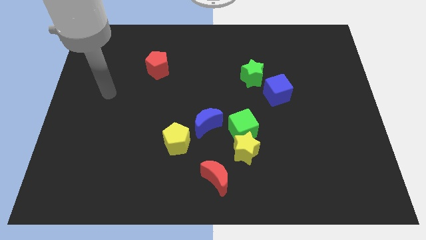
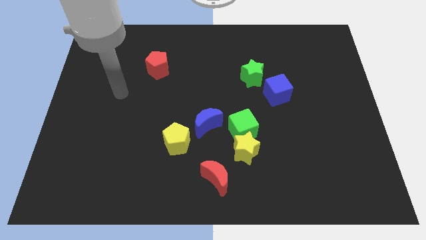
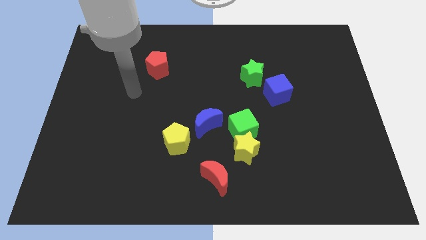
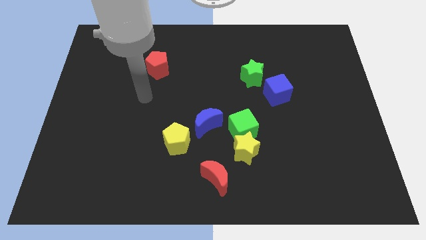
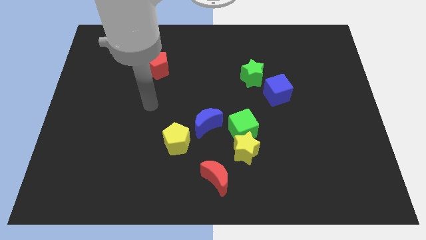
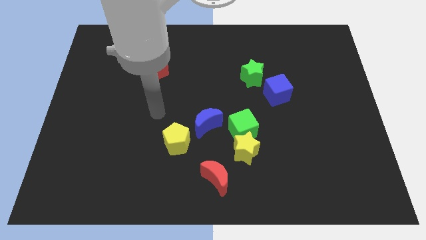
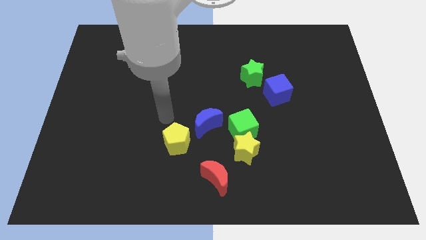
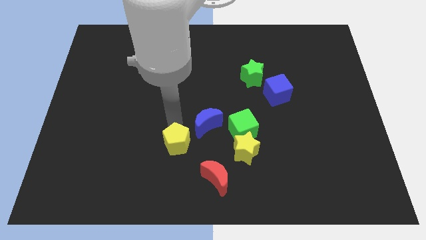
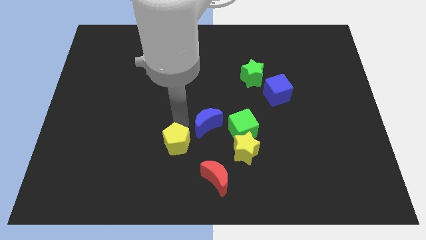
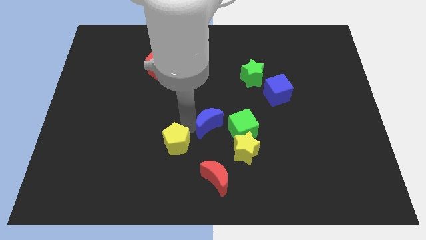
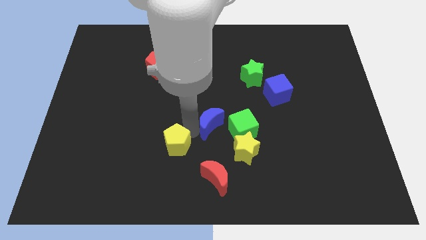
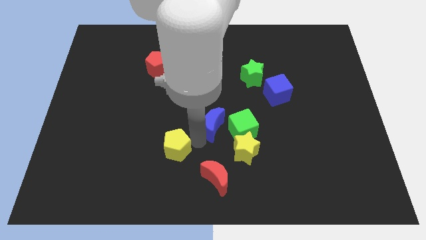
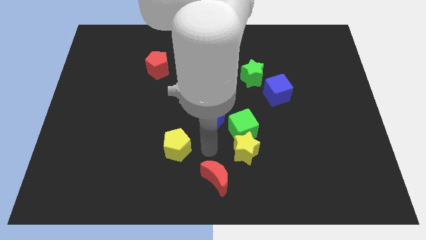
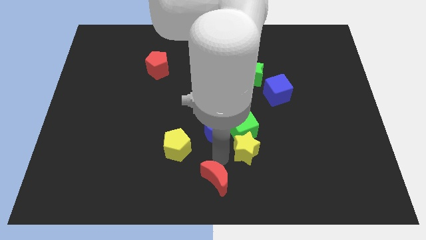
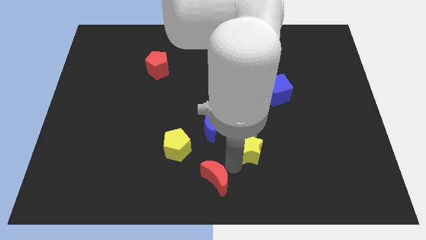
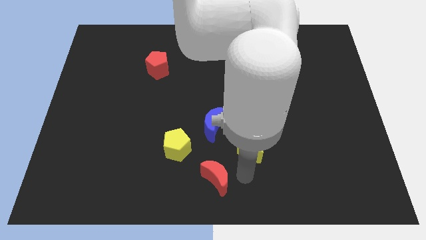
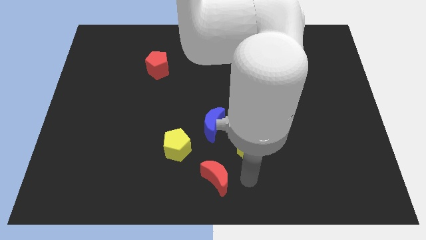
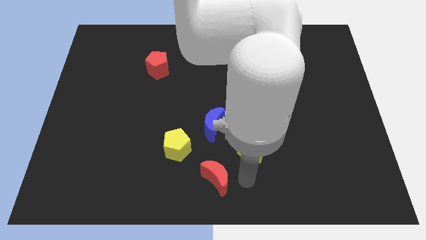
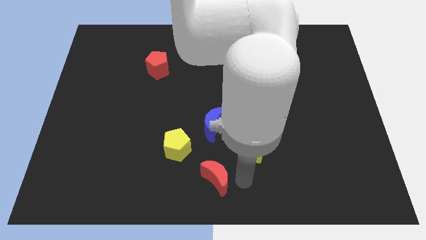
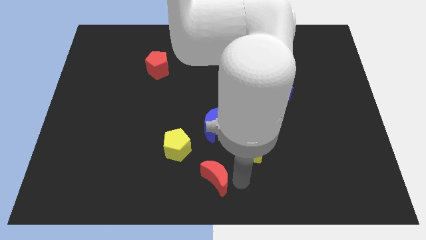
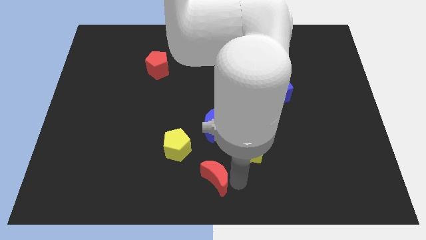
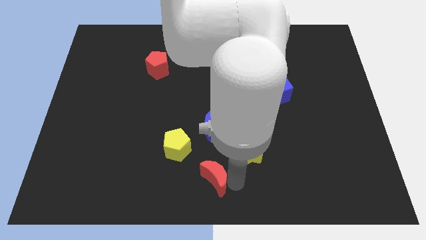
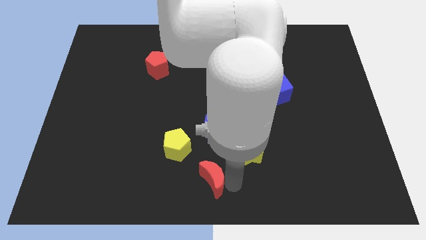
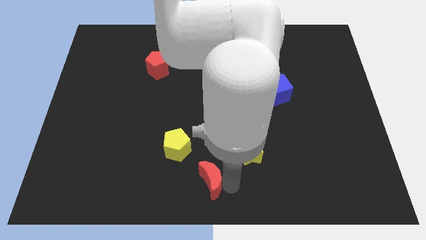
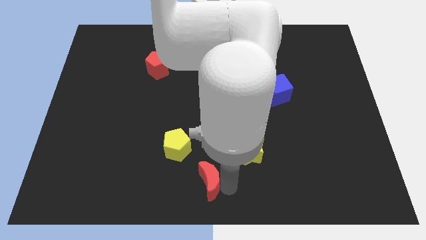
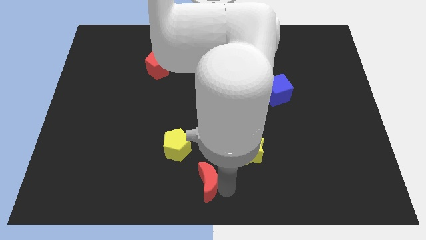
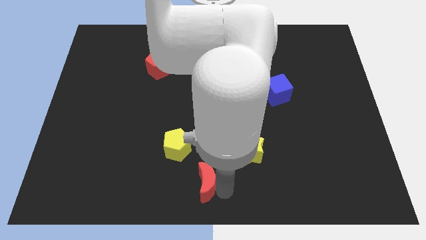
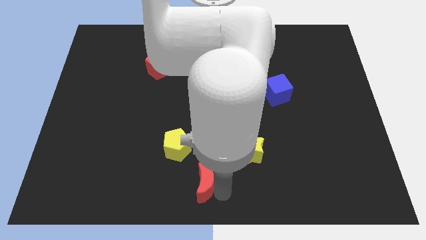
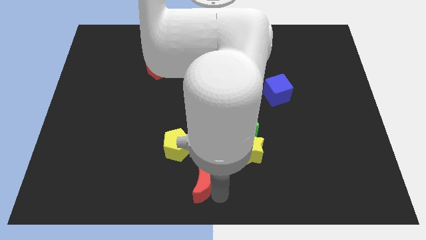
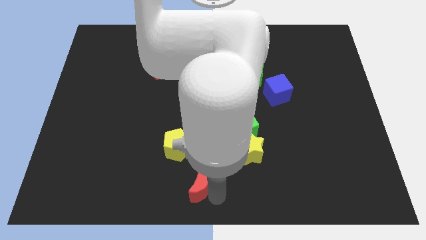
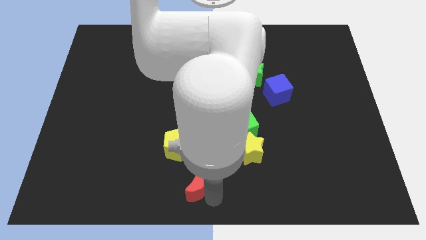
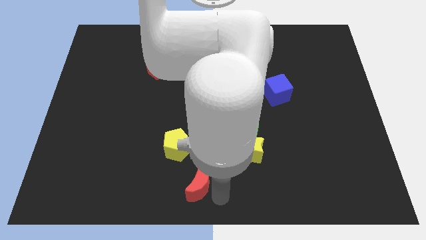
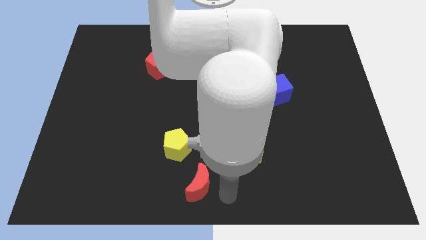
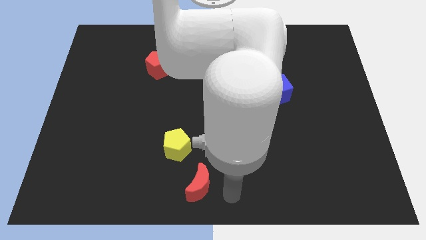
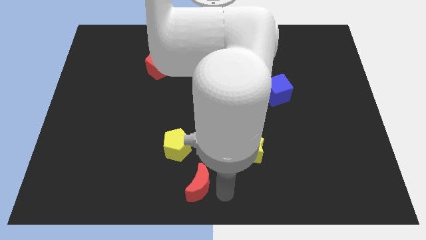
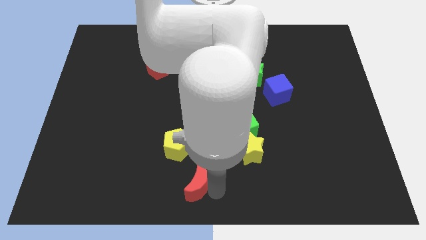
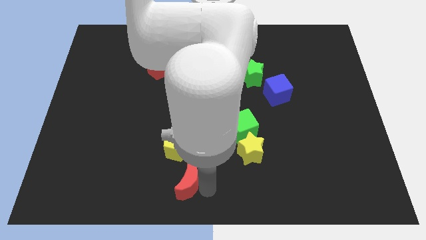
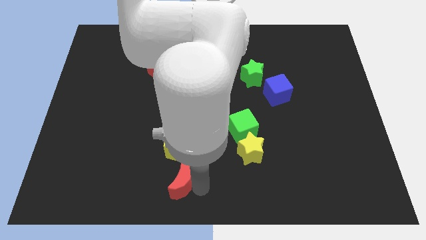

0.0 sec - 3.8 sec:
slide the red moon somewhat left

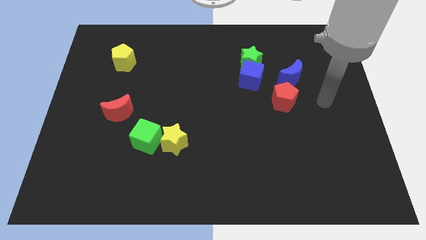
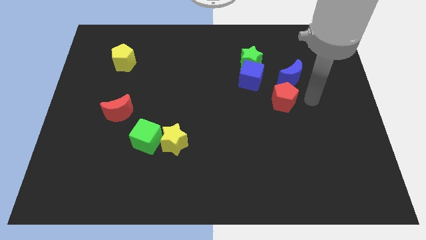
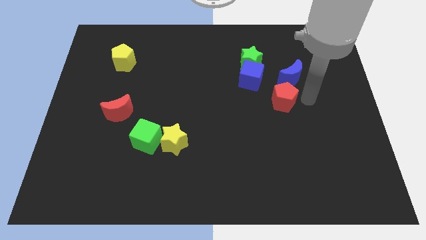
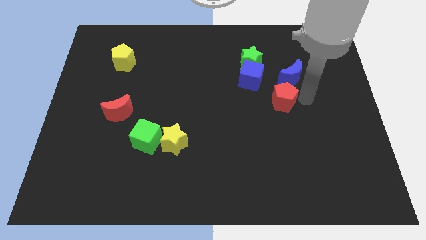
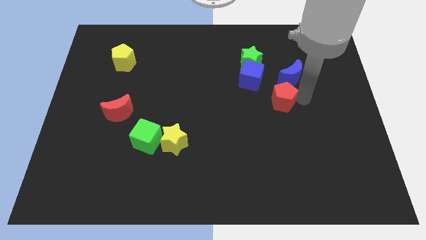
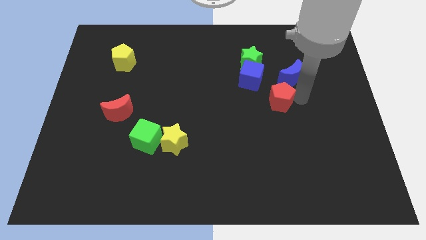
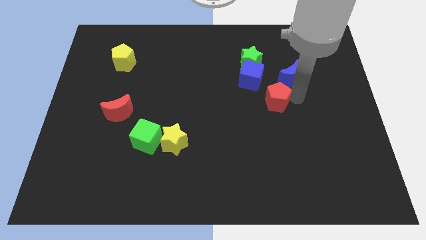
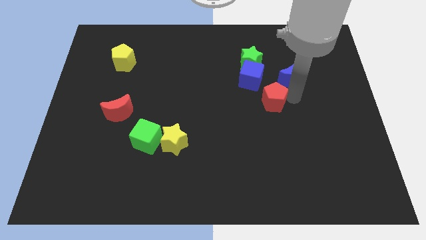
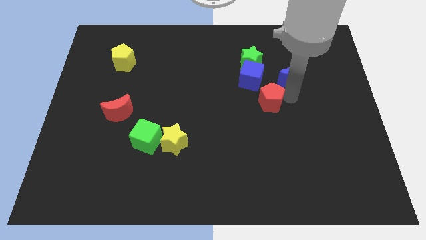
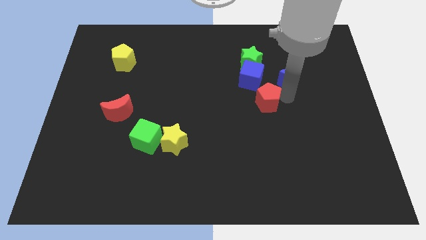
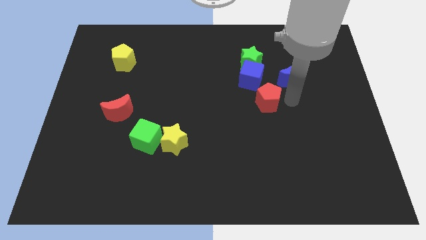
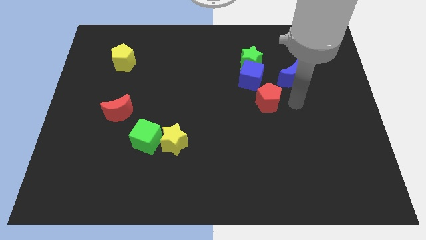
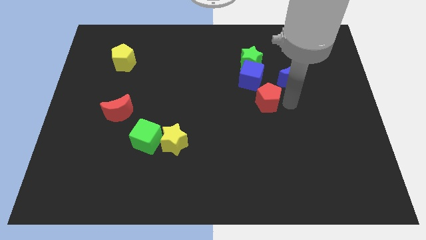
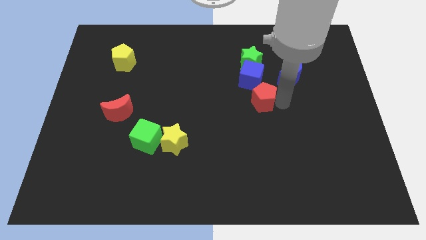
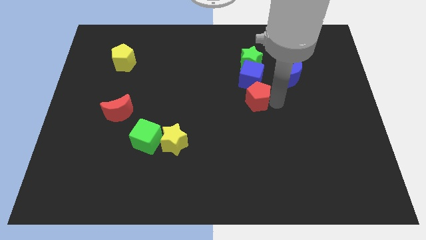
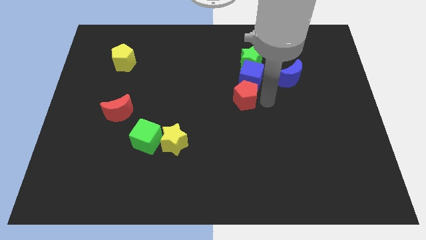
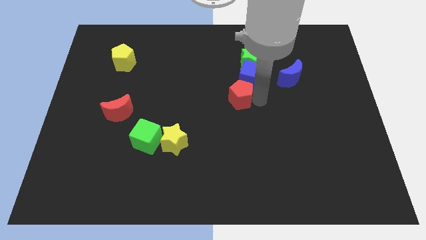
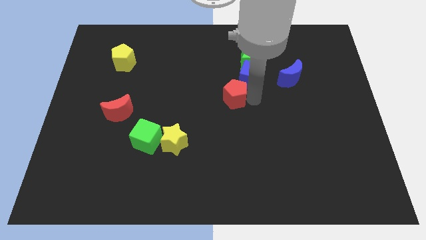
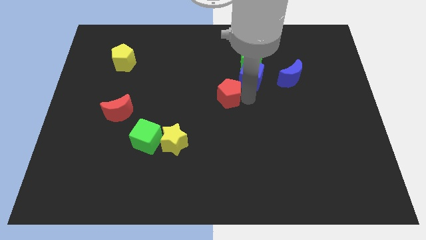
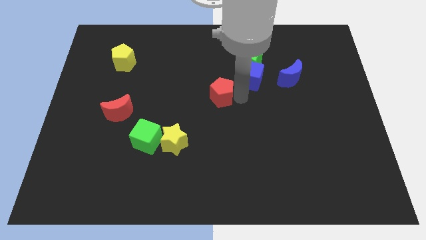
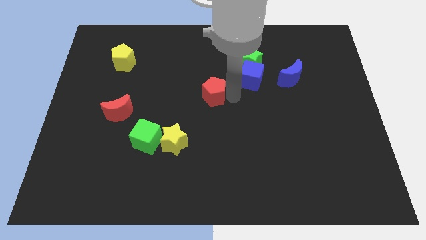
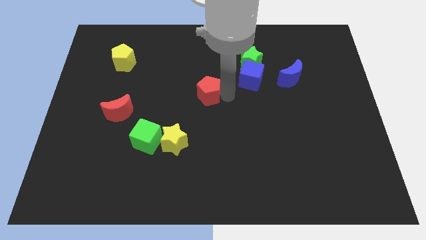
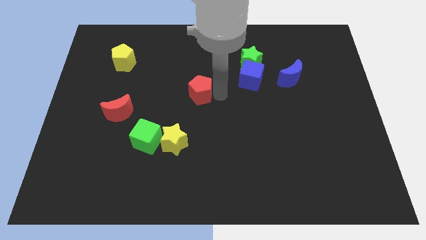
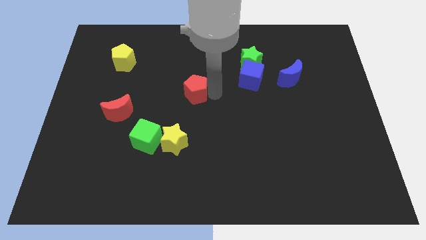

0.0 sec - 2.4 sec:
slide the red pentagon to the left

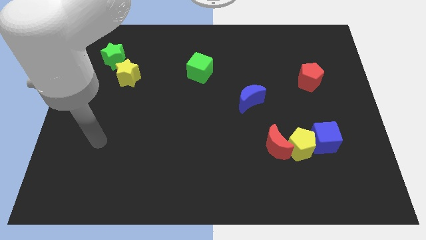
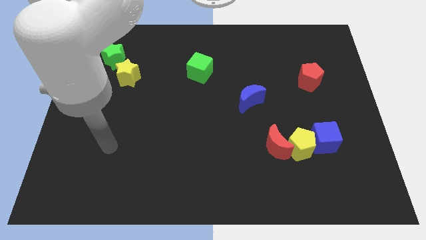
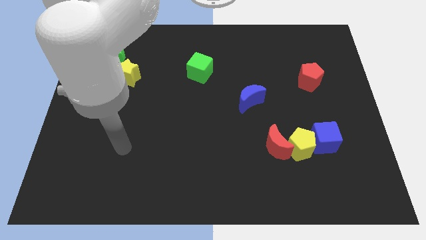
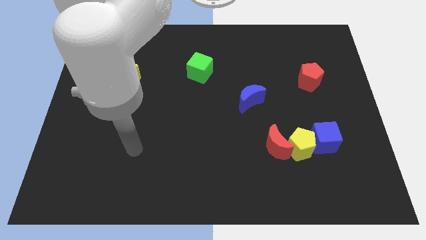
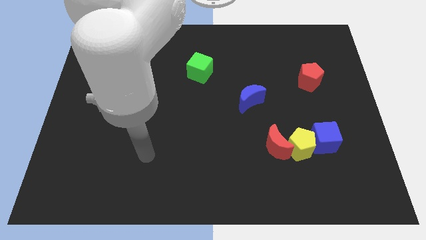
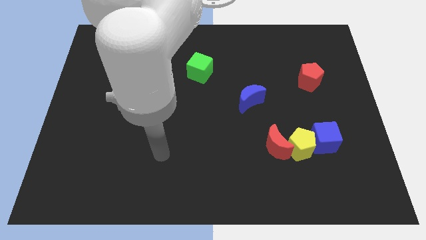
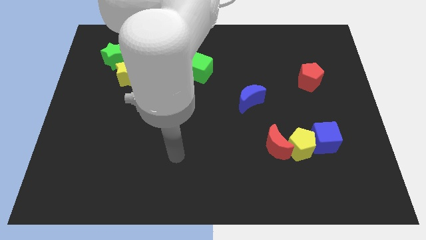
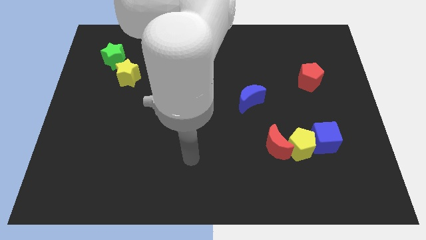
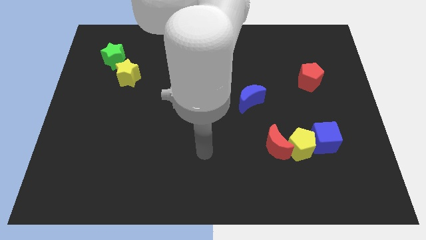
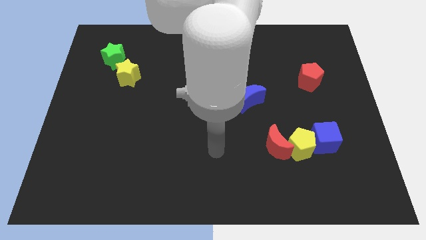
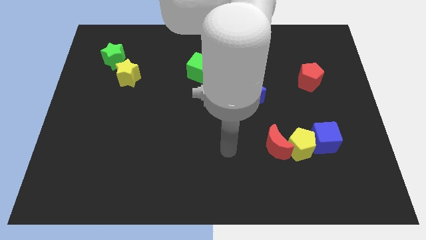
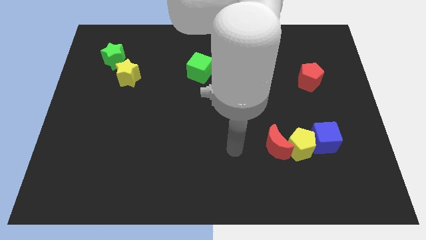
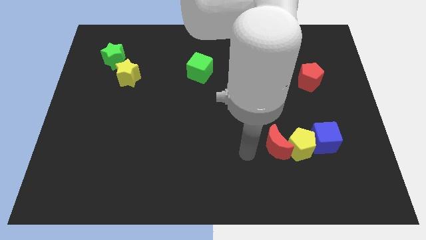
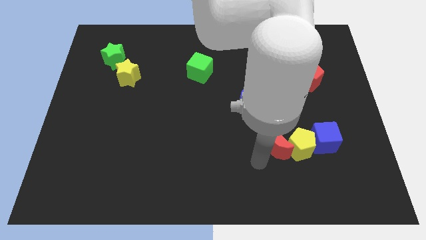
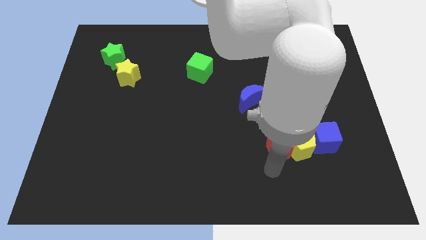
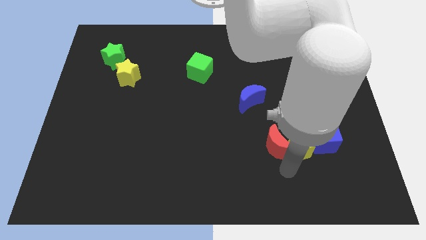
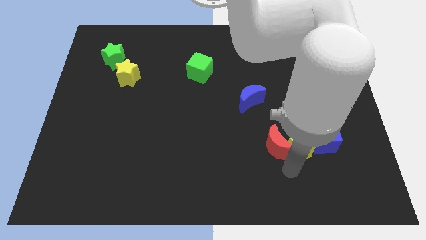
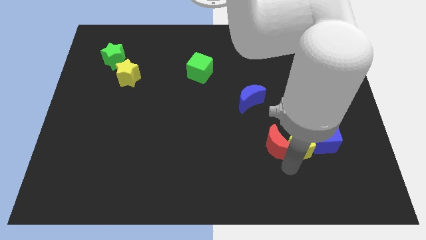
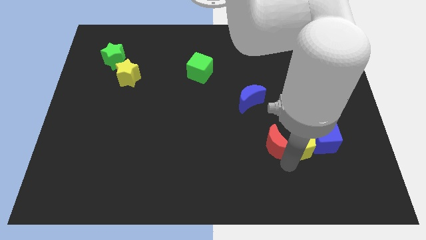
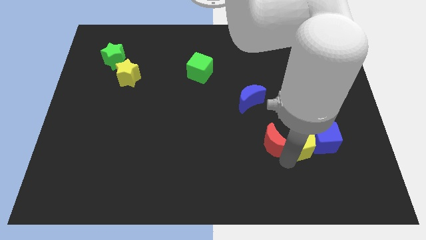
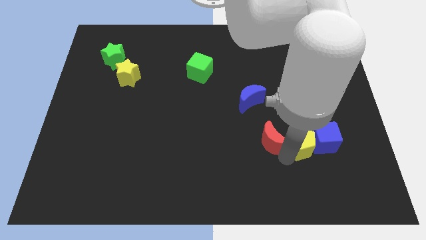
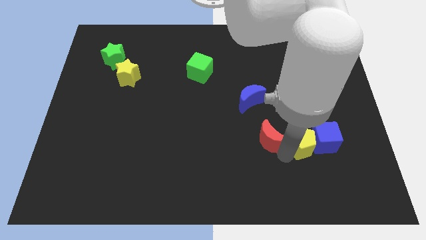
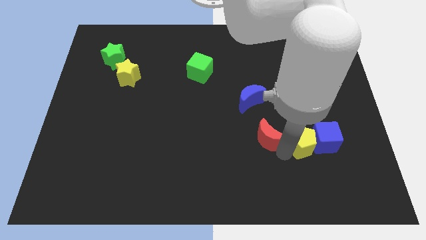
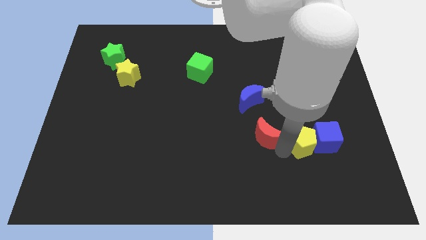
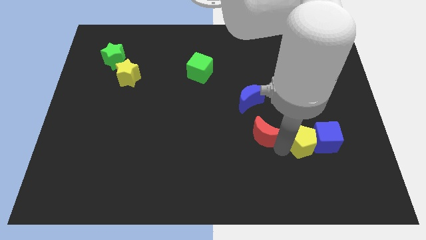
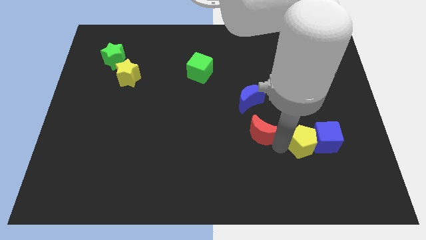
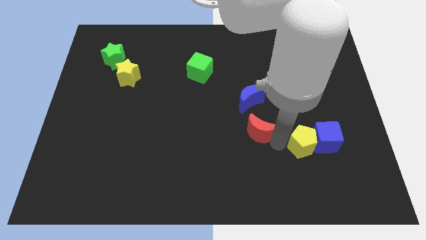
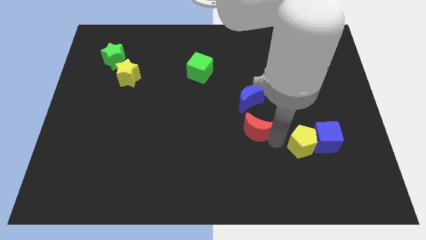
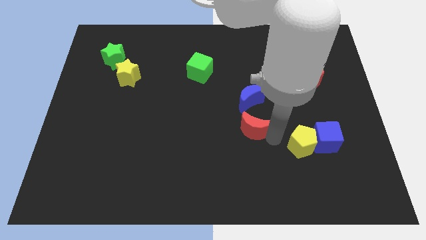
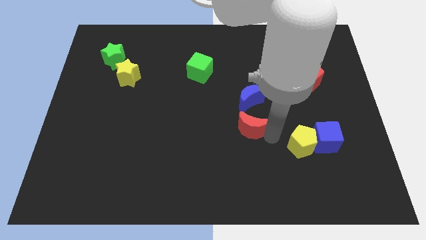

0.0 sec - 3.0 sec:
push the red moon up and to the left somewhat
